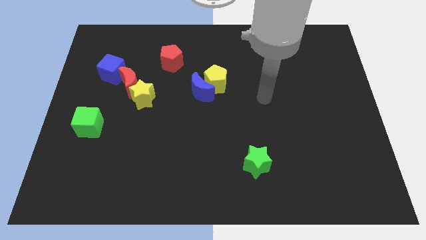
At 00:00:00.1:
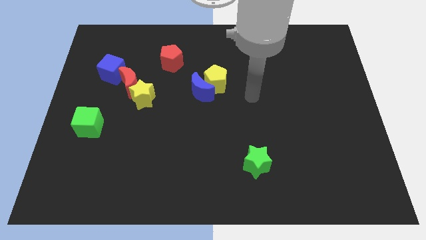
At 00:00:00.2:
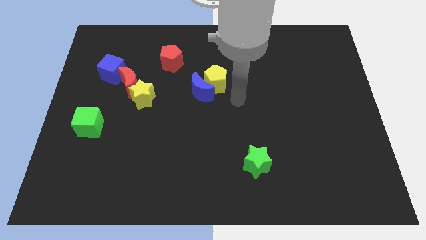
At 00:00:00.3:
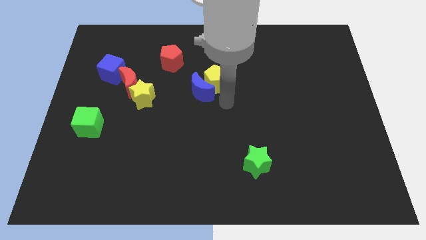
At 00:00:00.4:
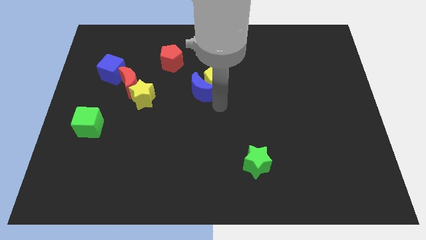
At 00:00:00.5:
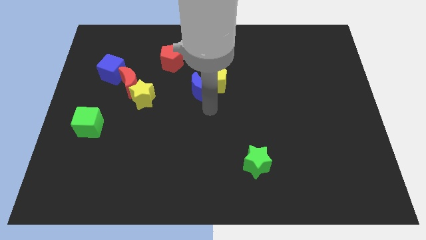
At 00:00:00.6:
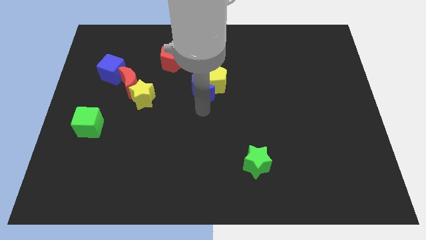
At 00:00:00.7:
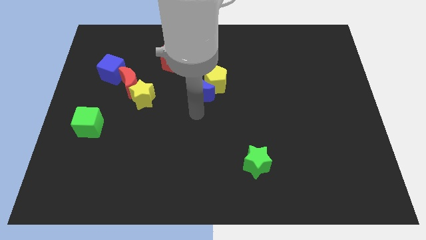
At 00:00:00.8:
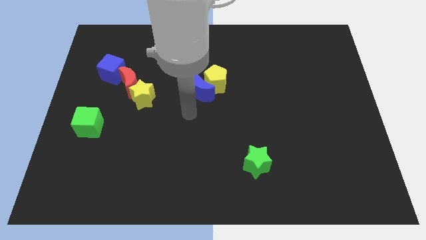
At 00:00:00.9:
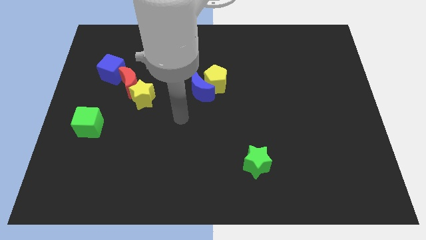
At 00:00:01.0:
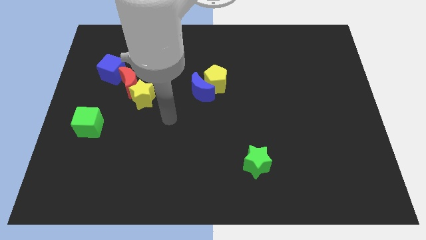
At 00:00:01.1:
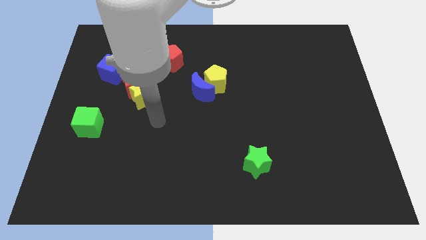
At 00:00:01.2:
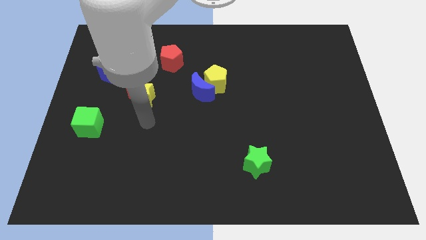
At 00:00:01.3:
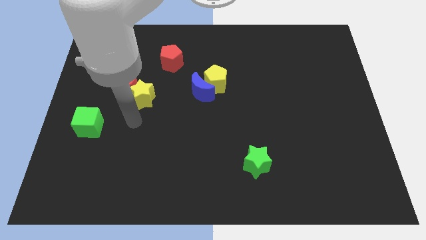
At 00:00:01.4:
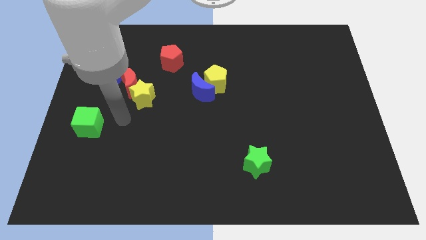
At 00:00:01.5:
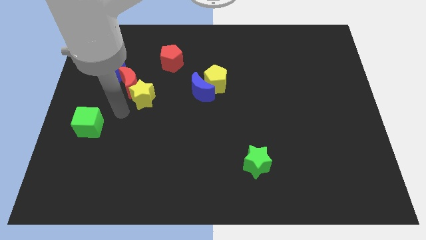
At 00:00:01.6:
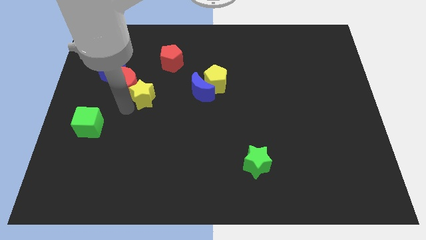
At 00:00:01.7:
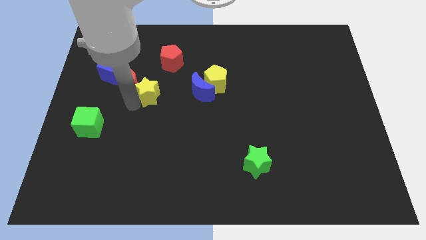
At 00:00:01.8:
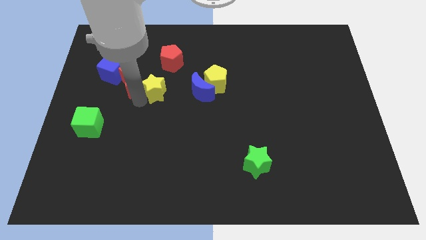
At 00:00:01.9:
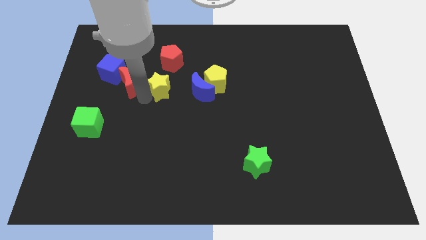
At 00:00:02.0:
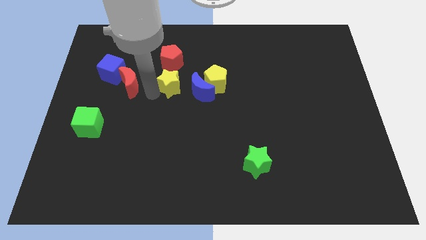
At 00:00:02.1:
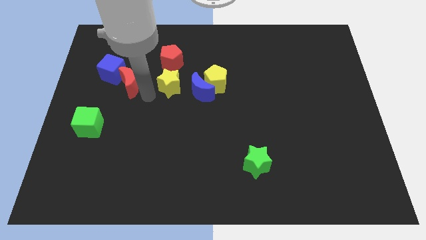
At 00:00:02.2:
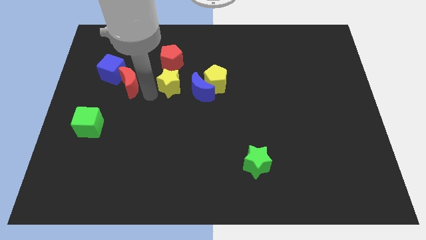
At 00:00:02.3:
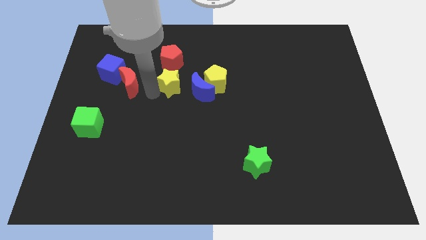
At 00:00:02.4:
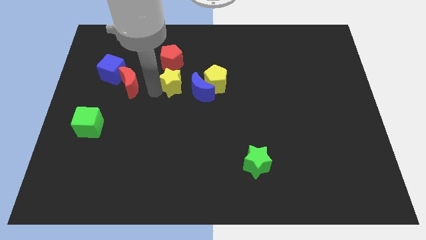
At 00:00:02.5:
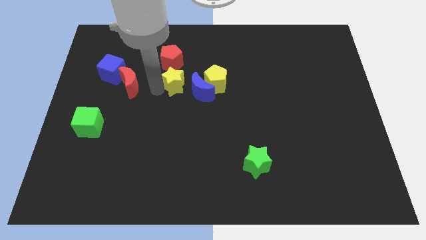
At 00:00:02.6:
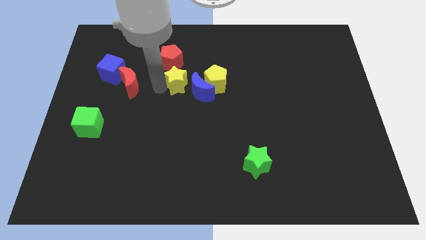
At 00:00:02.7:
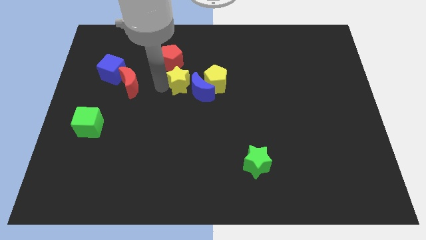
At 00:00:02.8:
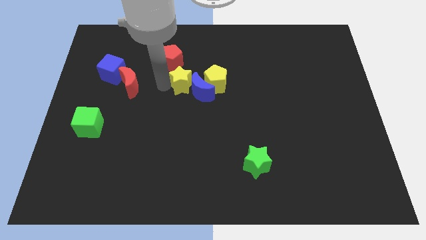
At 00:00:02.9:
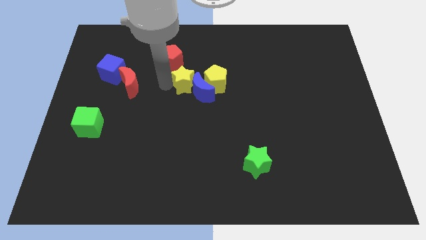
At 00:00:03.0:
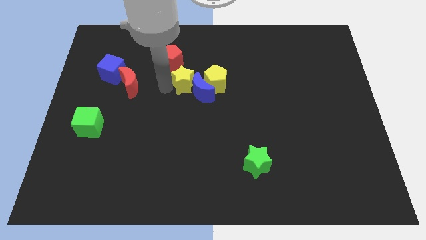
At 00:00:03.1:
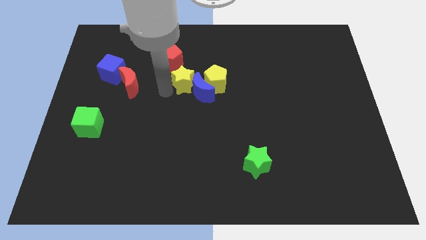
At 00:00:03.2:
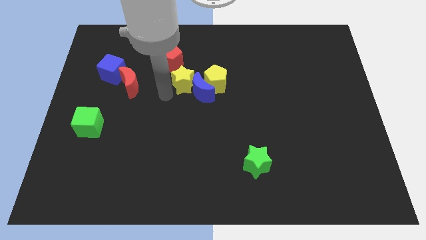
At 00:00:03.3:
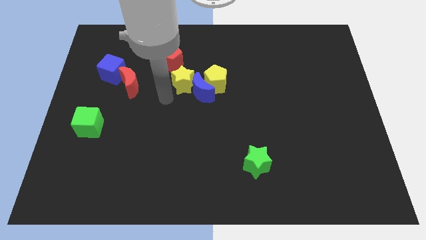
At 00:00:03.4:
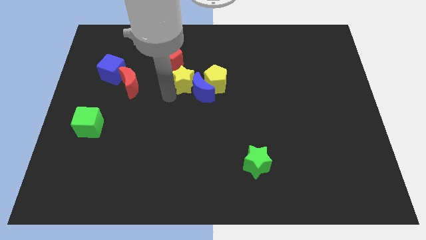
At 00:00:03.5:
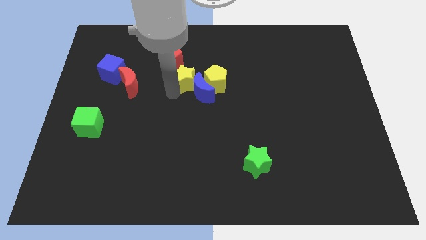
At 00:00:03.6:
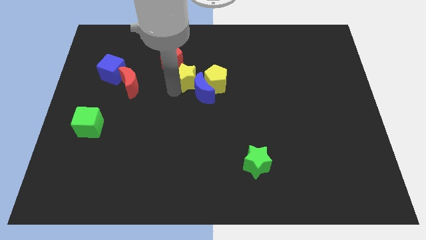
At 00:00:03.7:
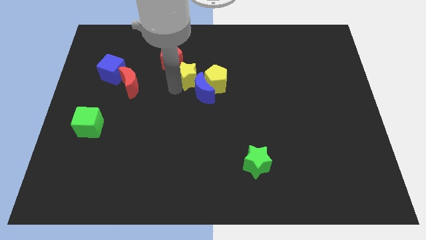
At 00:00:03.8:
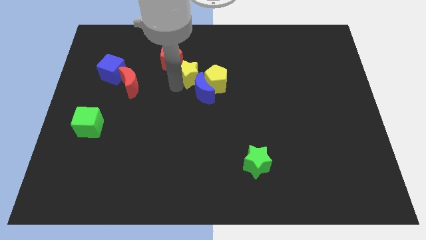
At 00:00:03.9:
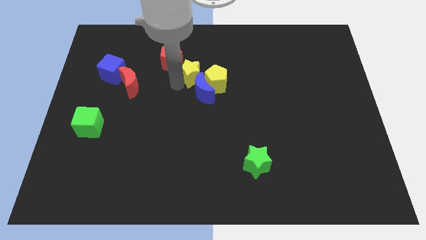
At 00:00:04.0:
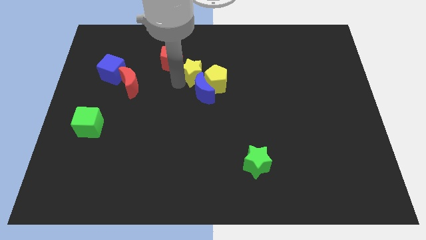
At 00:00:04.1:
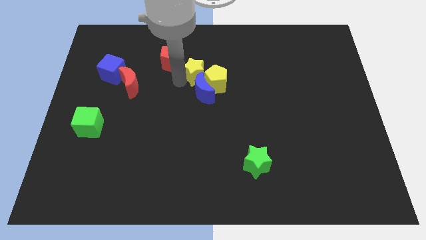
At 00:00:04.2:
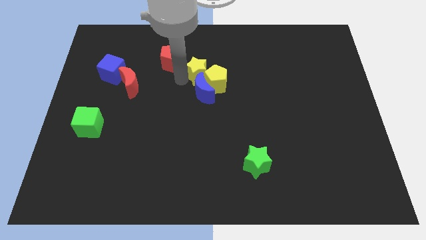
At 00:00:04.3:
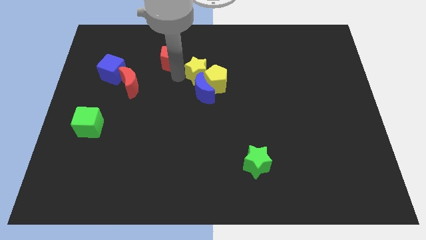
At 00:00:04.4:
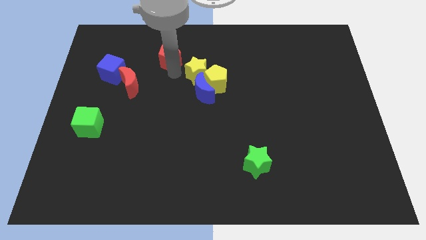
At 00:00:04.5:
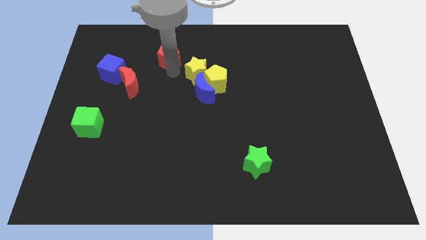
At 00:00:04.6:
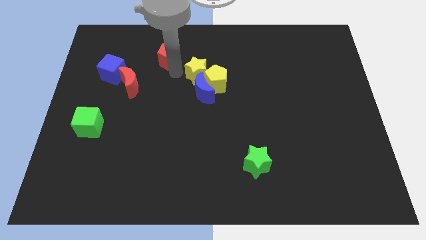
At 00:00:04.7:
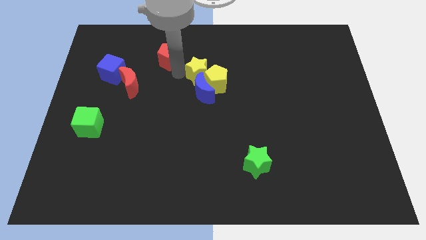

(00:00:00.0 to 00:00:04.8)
slide the yellow star to the top right of the blue moon

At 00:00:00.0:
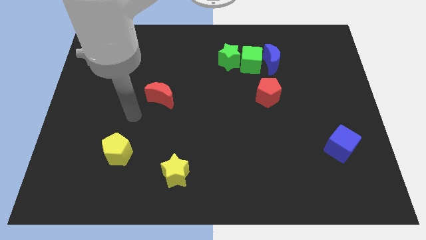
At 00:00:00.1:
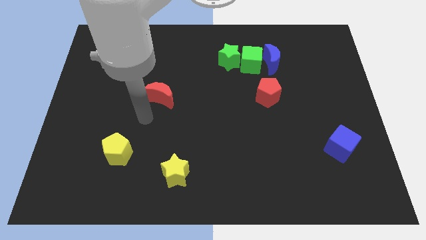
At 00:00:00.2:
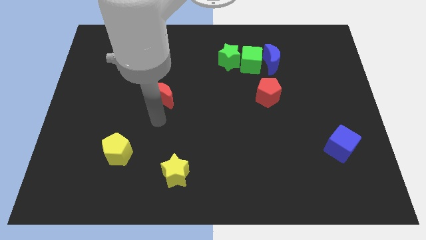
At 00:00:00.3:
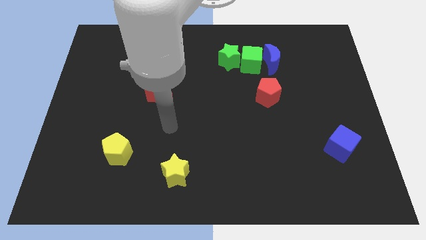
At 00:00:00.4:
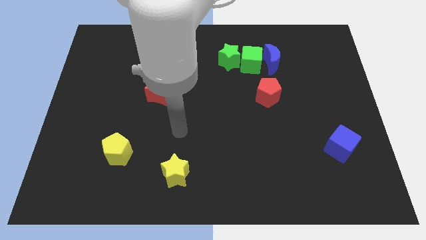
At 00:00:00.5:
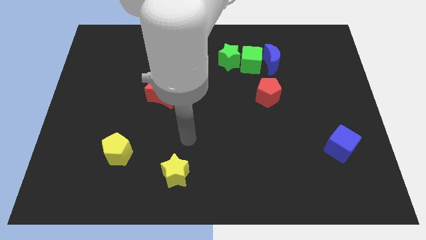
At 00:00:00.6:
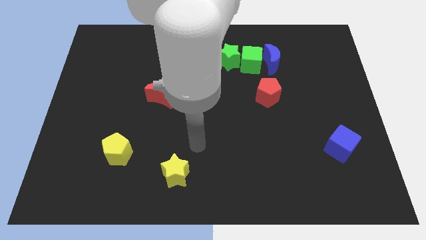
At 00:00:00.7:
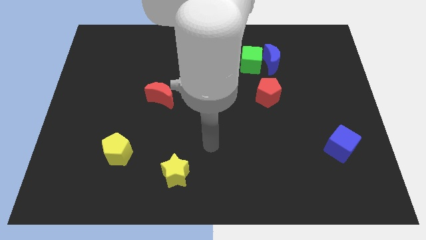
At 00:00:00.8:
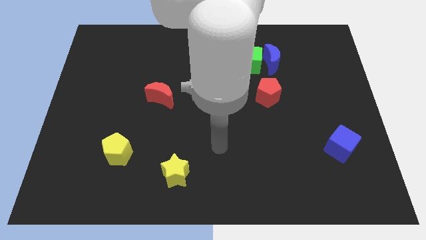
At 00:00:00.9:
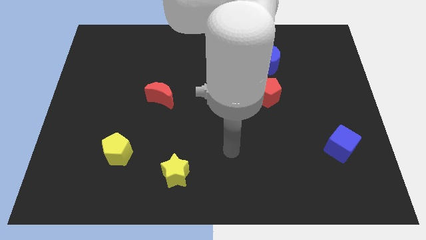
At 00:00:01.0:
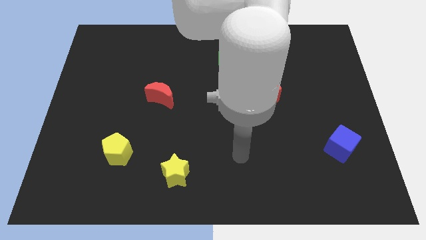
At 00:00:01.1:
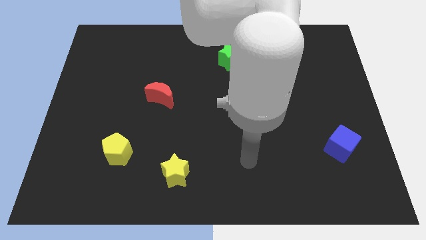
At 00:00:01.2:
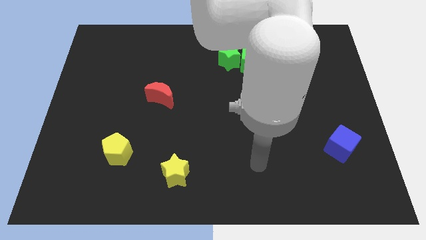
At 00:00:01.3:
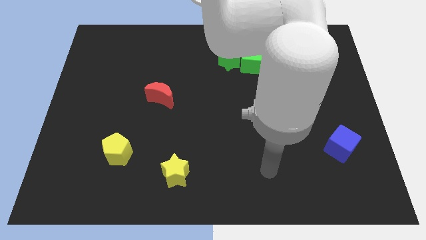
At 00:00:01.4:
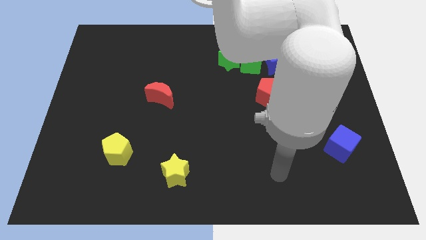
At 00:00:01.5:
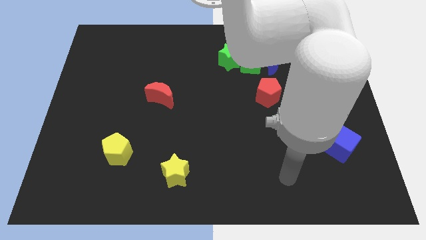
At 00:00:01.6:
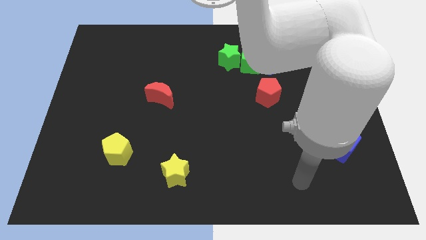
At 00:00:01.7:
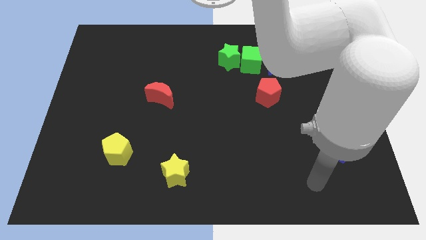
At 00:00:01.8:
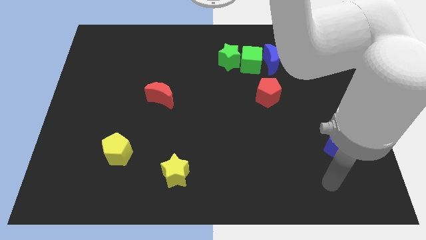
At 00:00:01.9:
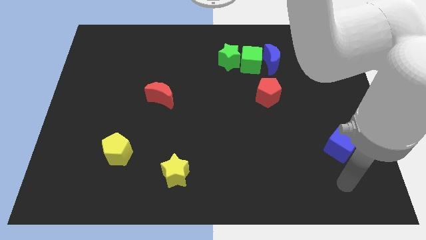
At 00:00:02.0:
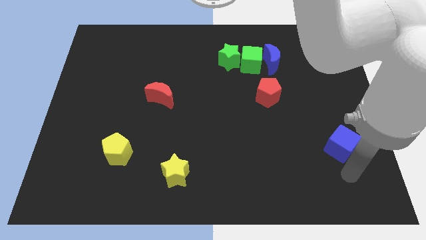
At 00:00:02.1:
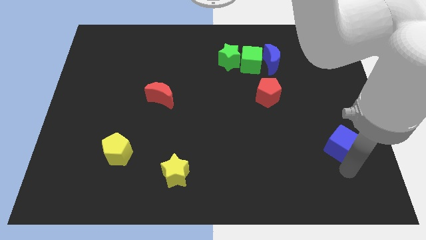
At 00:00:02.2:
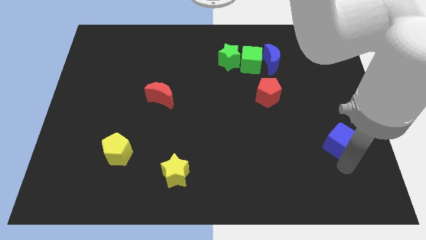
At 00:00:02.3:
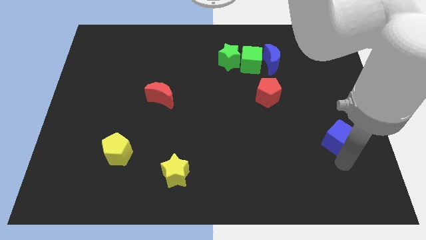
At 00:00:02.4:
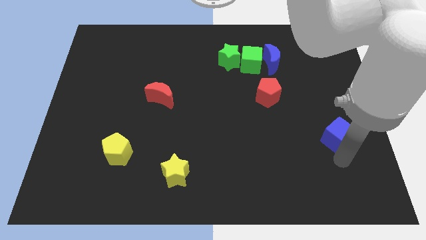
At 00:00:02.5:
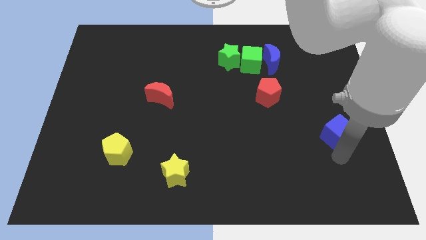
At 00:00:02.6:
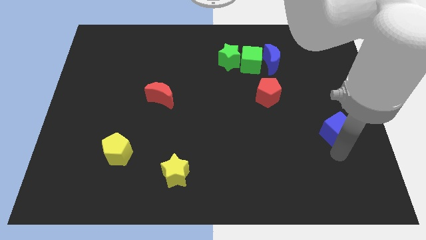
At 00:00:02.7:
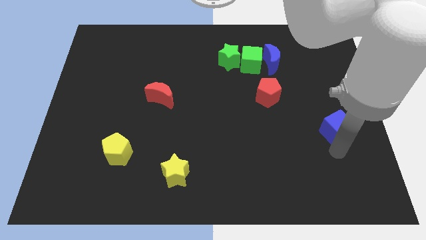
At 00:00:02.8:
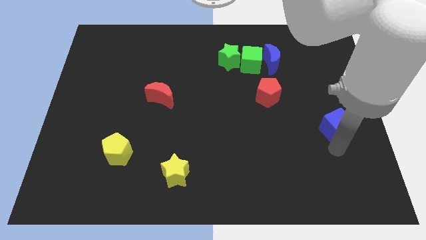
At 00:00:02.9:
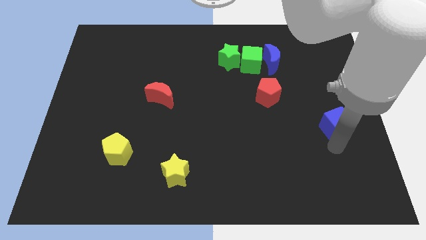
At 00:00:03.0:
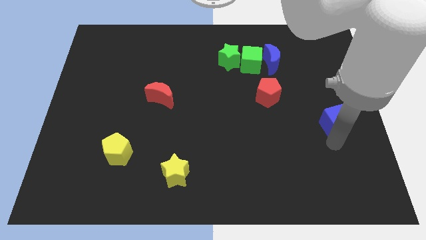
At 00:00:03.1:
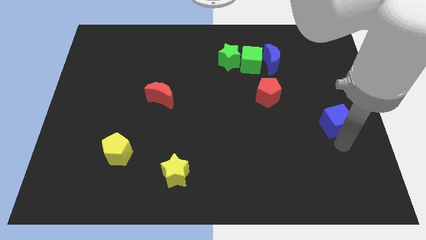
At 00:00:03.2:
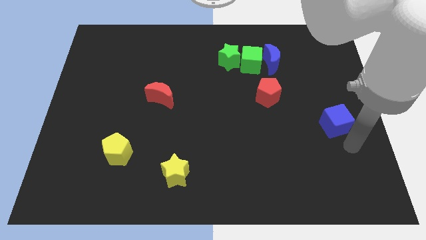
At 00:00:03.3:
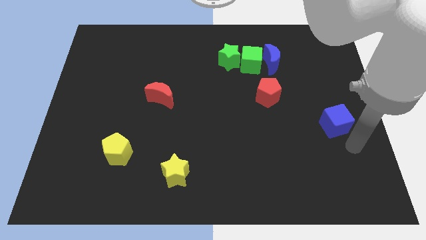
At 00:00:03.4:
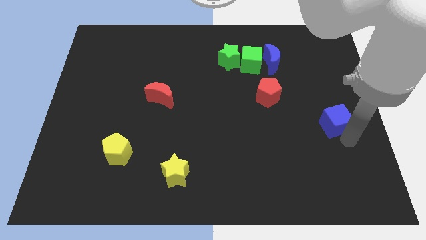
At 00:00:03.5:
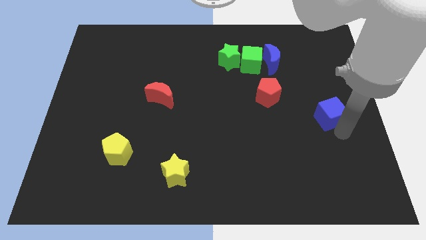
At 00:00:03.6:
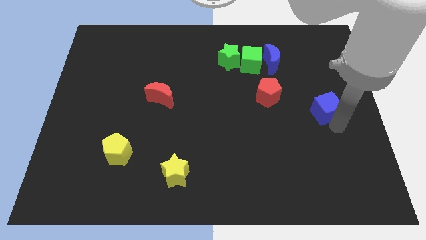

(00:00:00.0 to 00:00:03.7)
put the blue cube to the right of the red pentagon
